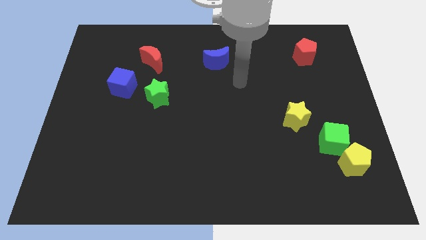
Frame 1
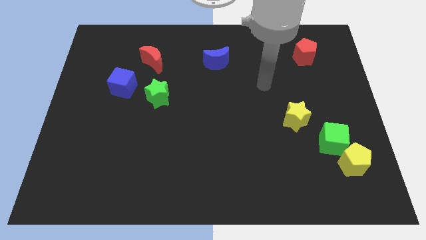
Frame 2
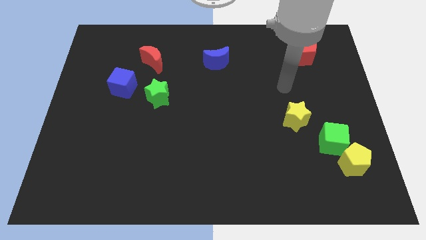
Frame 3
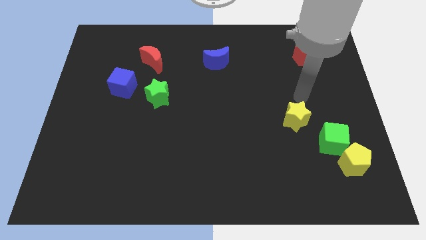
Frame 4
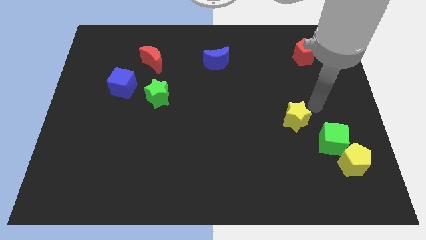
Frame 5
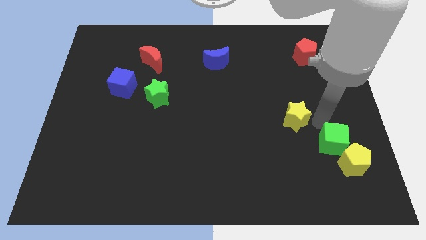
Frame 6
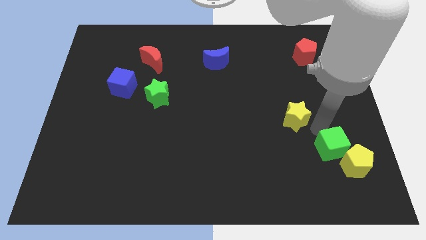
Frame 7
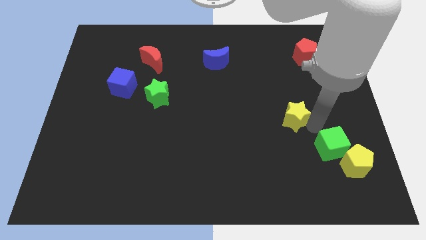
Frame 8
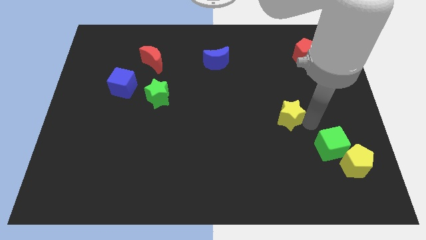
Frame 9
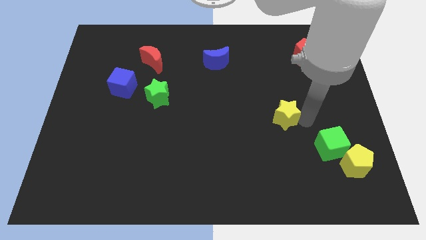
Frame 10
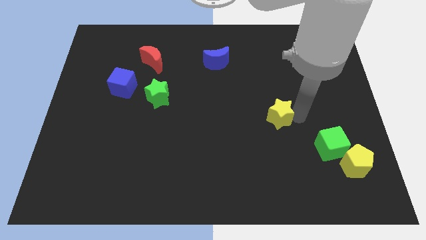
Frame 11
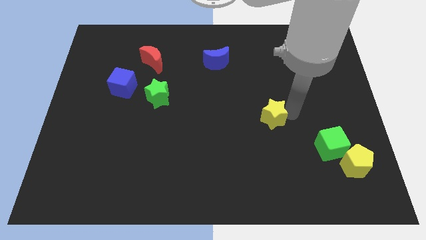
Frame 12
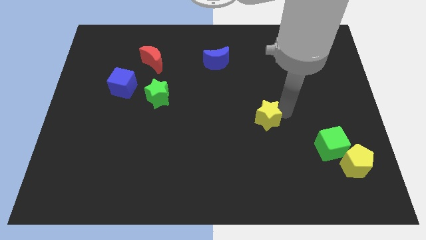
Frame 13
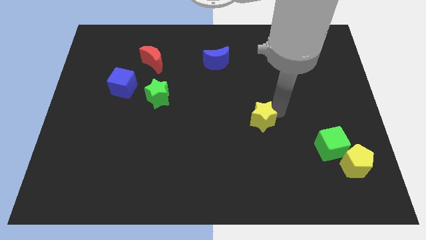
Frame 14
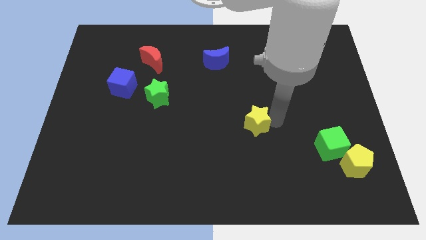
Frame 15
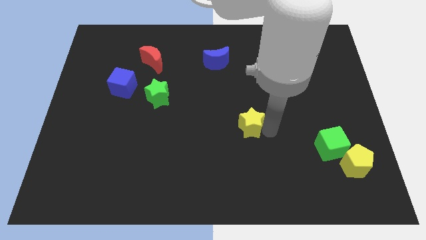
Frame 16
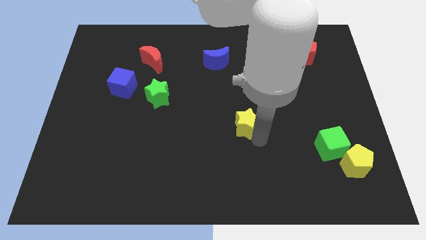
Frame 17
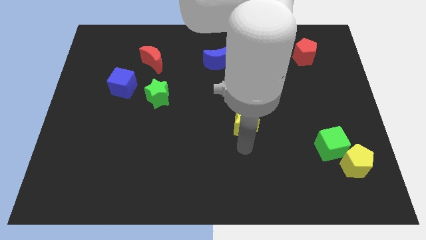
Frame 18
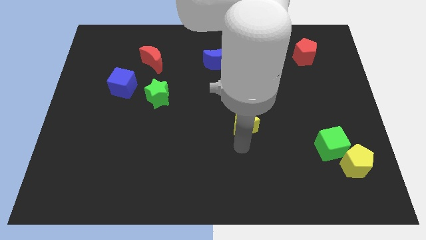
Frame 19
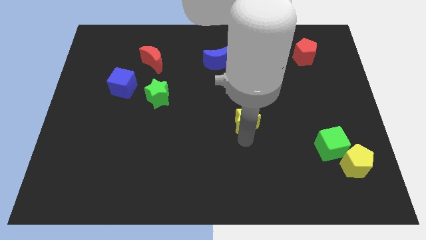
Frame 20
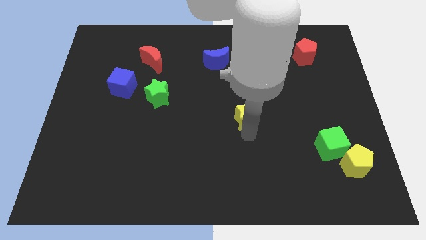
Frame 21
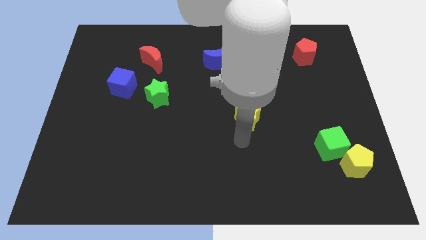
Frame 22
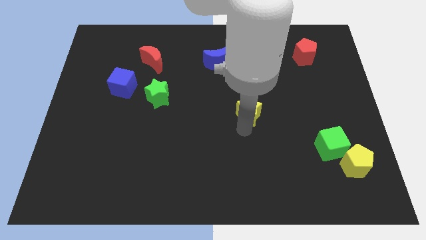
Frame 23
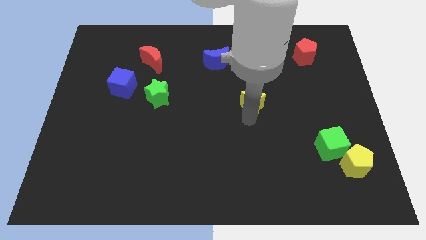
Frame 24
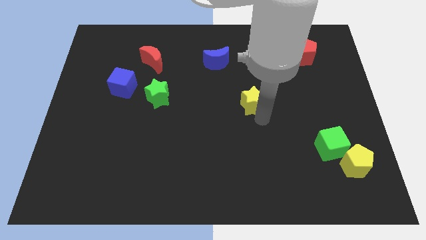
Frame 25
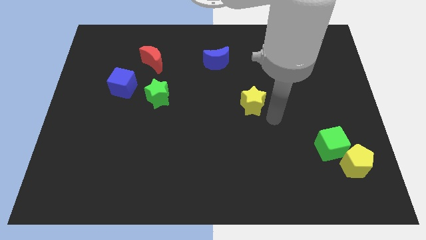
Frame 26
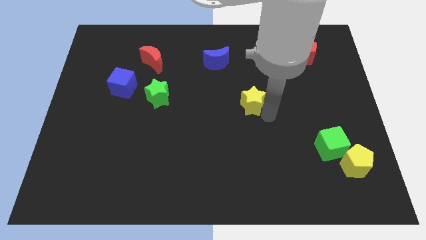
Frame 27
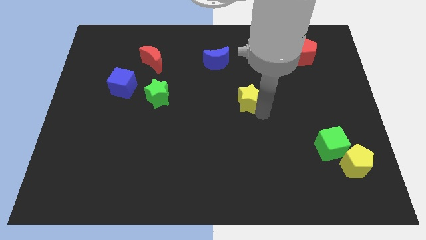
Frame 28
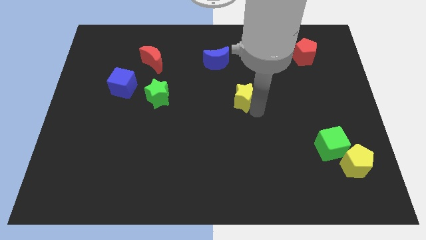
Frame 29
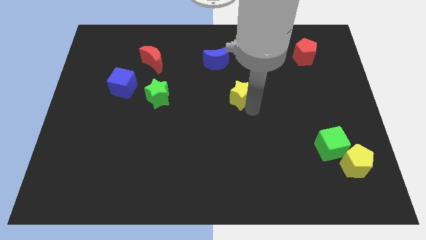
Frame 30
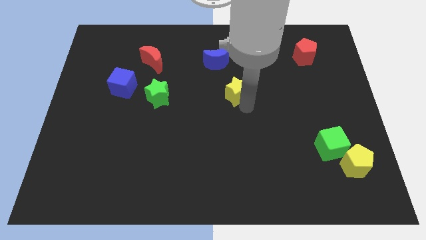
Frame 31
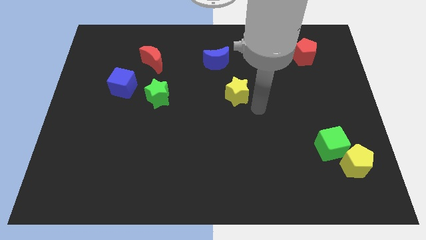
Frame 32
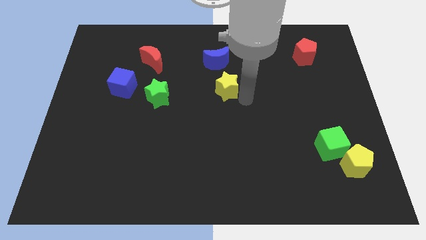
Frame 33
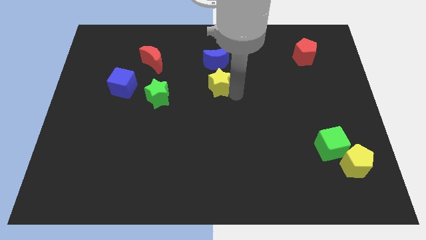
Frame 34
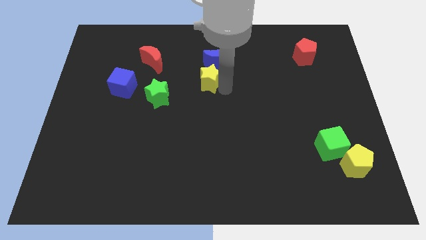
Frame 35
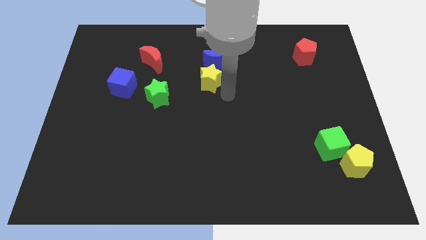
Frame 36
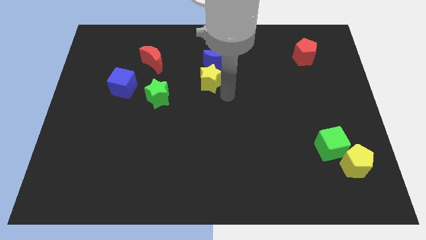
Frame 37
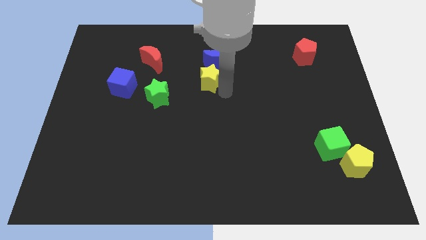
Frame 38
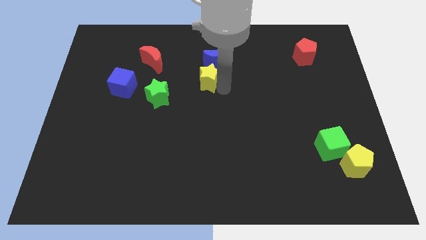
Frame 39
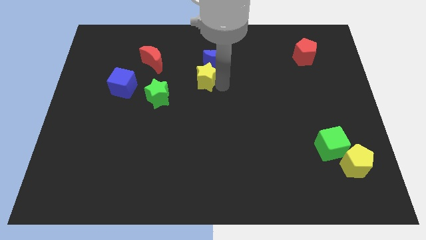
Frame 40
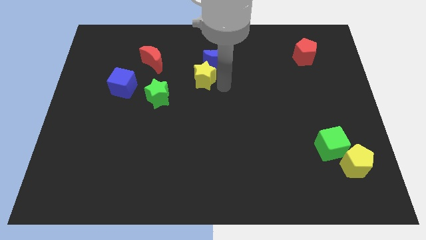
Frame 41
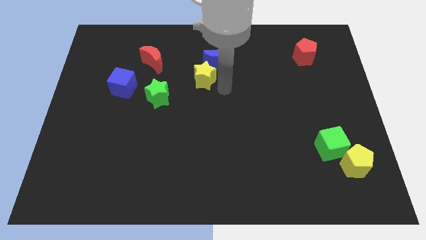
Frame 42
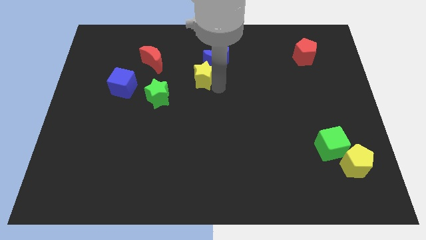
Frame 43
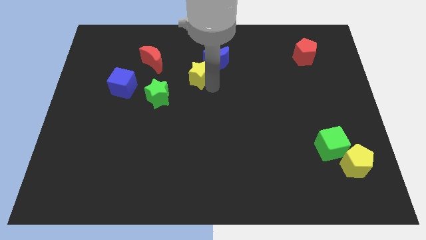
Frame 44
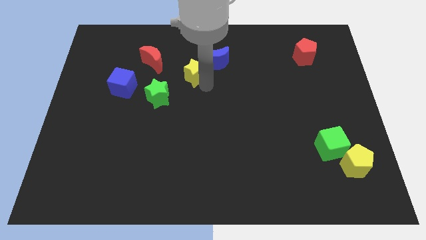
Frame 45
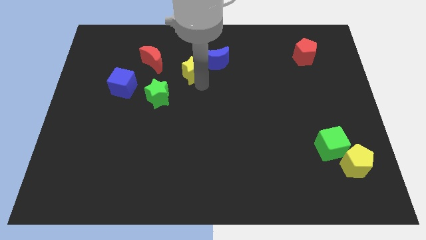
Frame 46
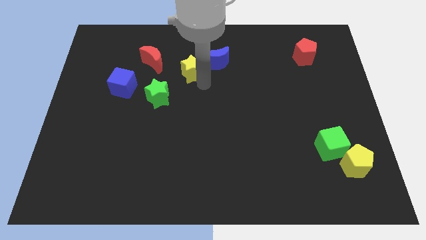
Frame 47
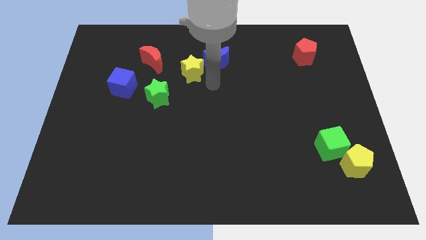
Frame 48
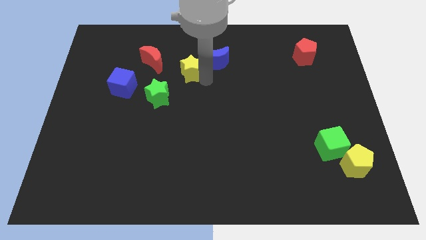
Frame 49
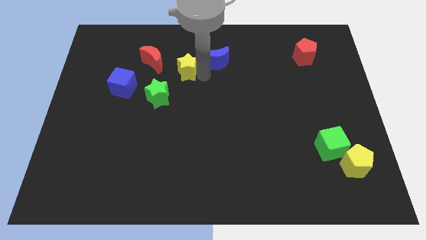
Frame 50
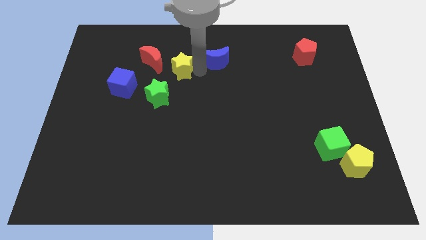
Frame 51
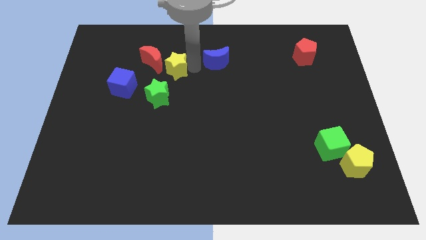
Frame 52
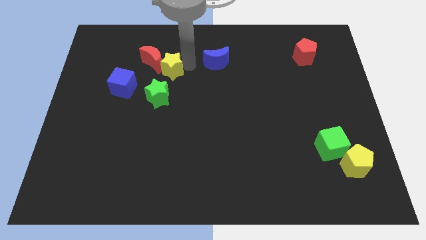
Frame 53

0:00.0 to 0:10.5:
slide the yellow star to the red moon

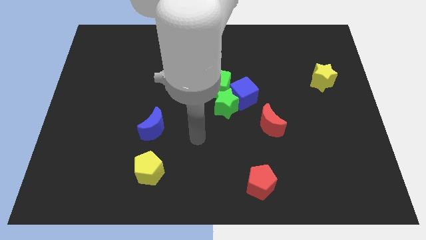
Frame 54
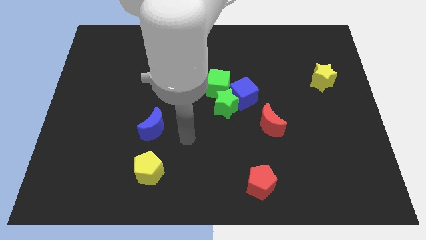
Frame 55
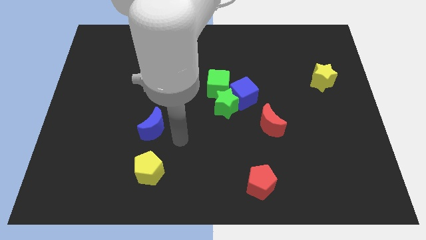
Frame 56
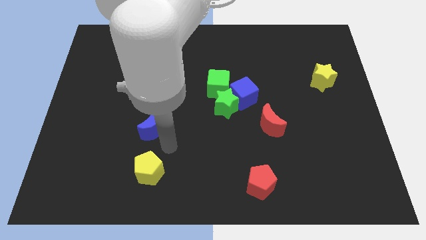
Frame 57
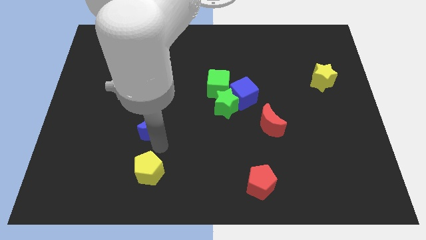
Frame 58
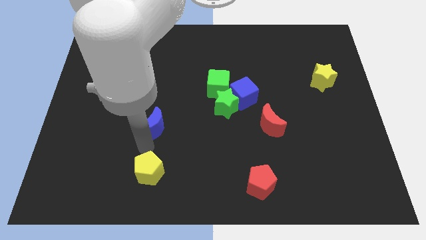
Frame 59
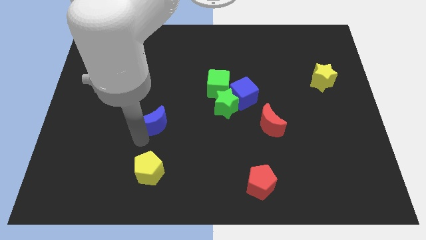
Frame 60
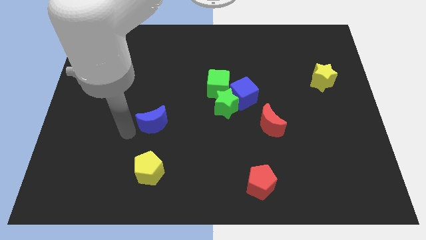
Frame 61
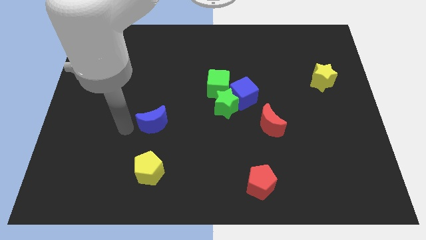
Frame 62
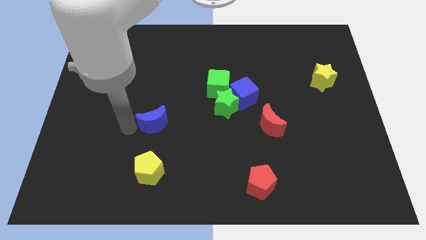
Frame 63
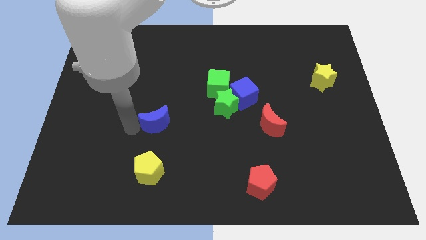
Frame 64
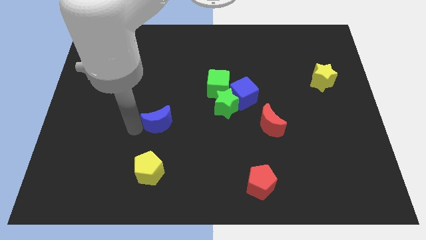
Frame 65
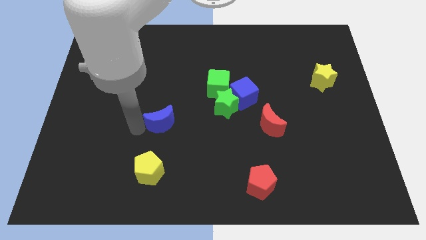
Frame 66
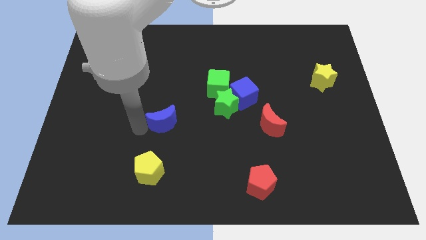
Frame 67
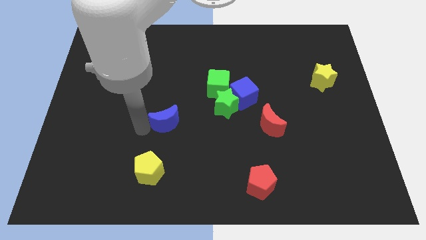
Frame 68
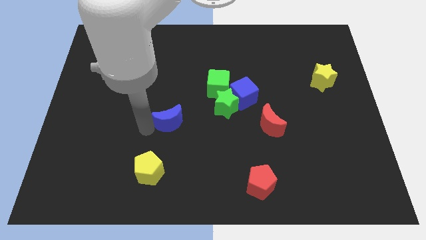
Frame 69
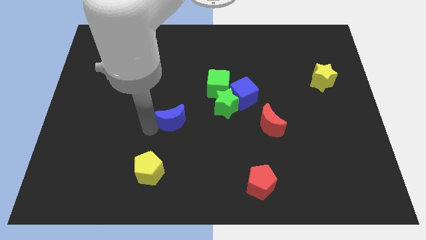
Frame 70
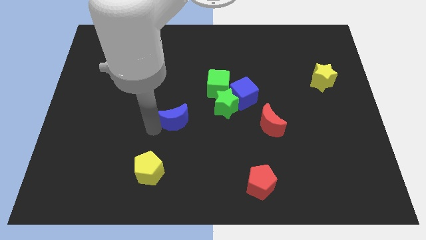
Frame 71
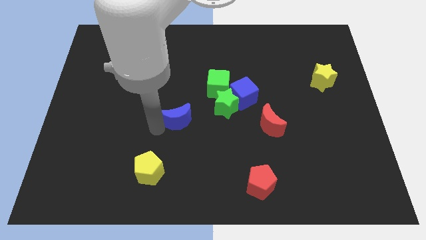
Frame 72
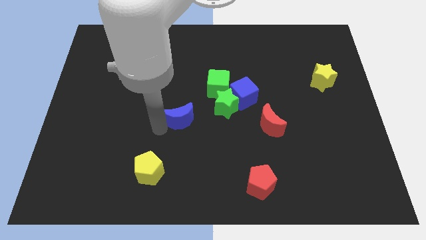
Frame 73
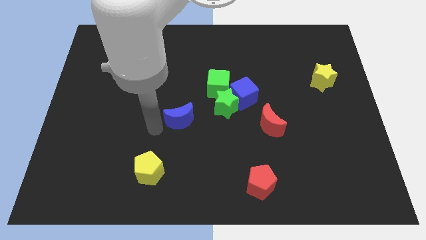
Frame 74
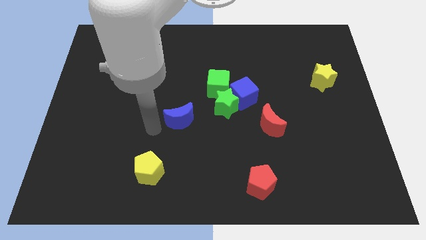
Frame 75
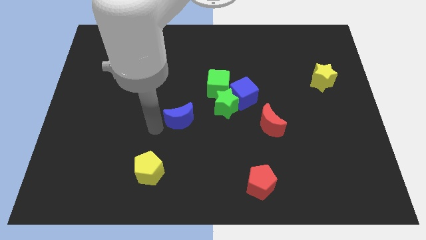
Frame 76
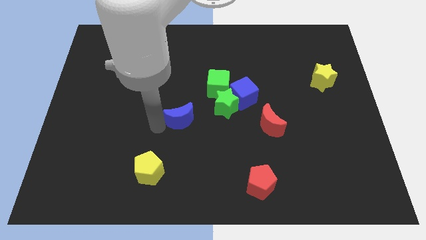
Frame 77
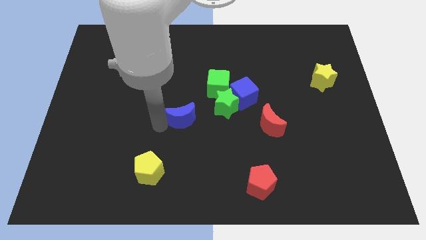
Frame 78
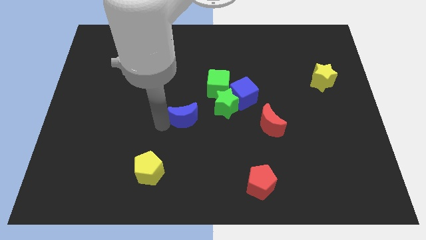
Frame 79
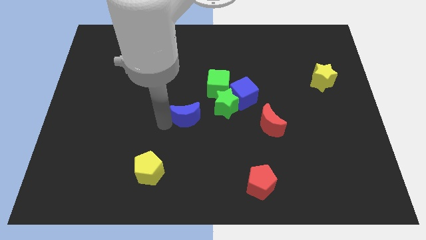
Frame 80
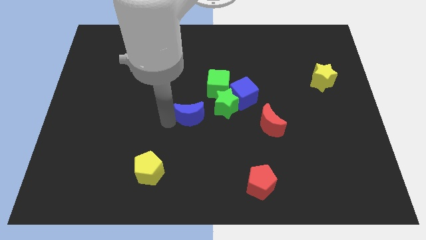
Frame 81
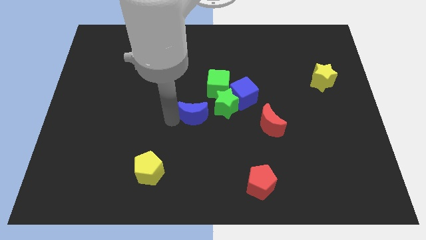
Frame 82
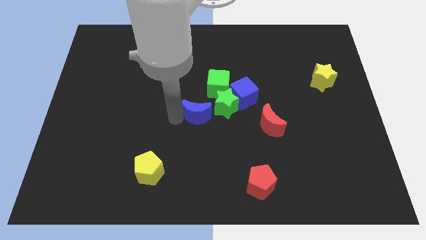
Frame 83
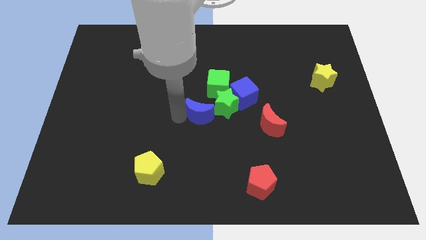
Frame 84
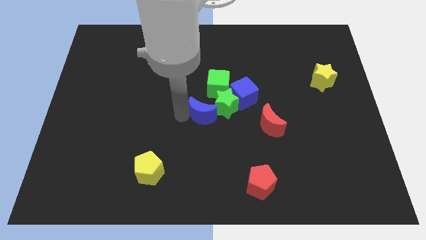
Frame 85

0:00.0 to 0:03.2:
put the blue moon next to the green star
